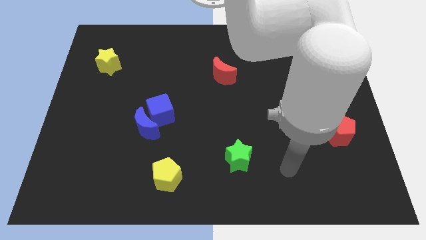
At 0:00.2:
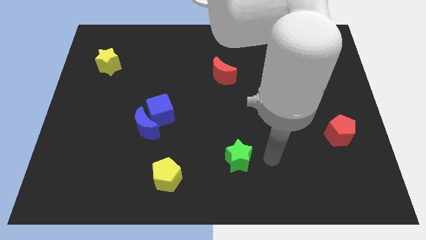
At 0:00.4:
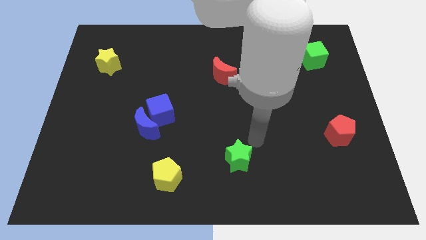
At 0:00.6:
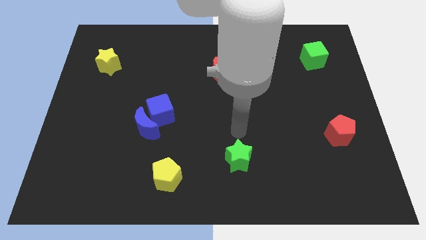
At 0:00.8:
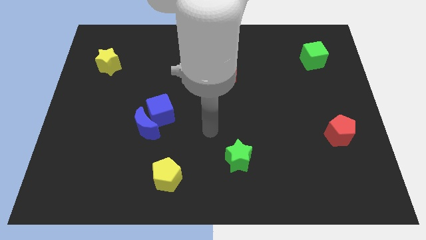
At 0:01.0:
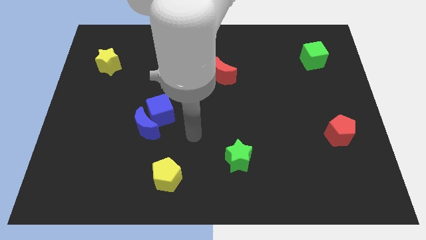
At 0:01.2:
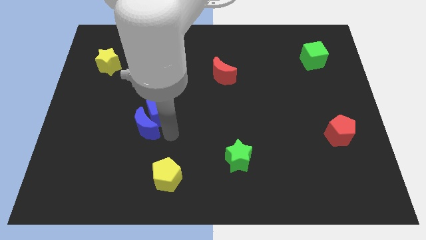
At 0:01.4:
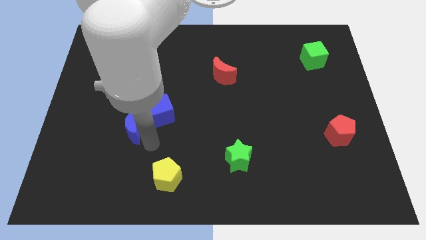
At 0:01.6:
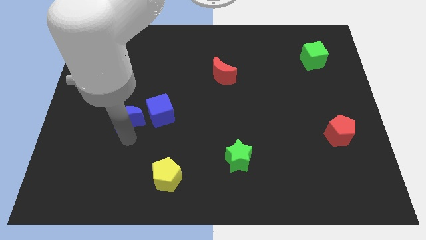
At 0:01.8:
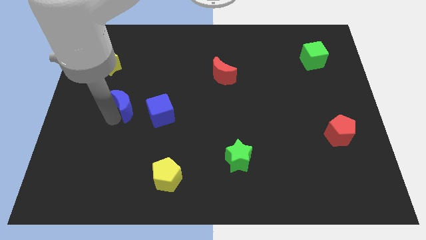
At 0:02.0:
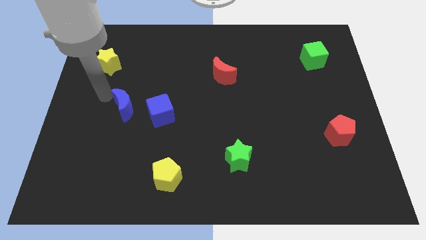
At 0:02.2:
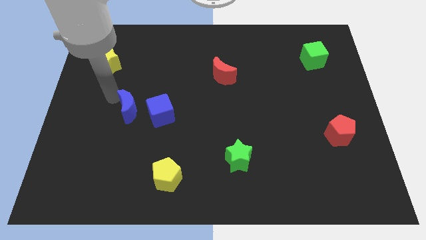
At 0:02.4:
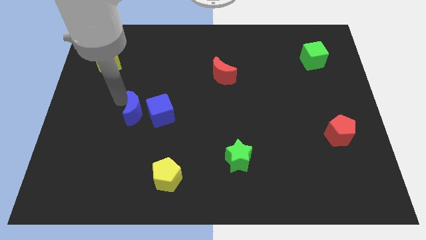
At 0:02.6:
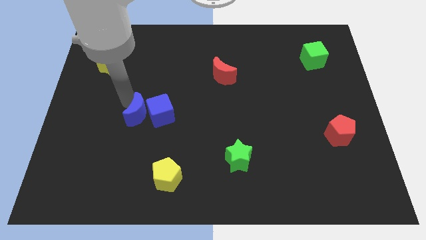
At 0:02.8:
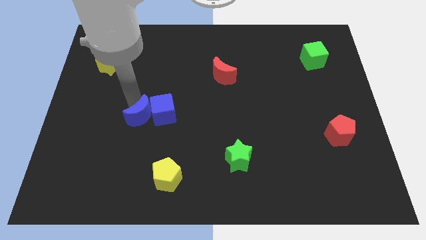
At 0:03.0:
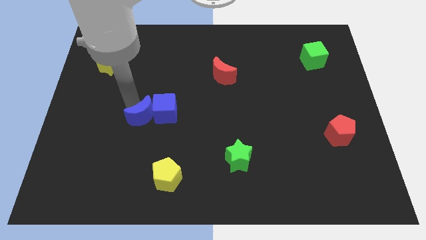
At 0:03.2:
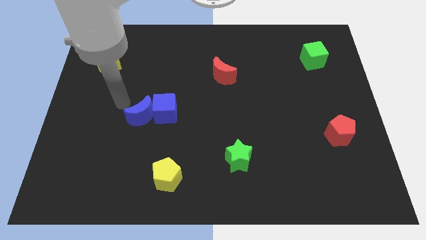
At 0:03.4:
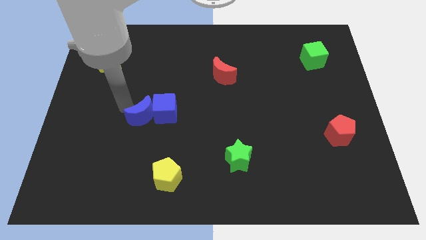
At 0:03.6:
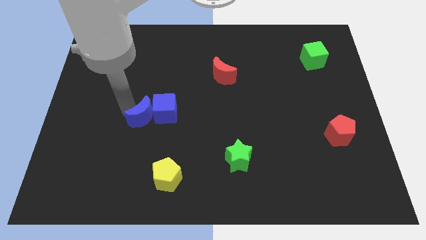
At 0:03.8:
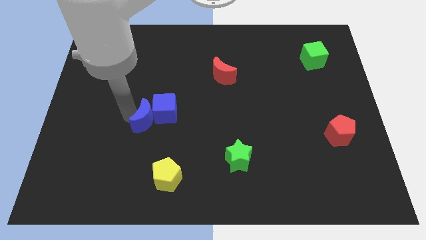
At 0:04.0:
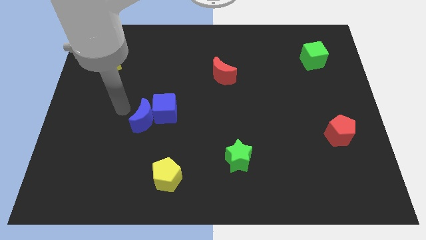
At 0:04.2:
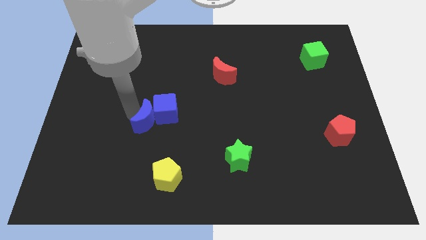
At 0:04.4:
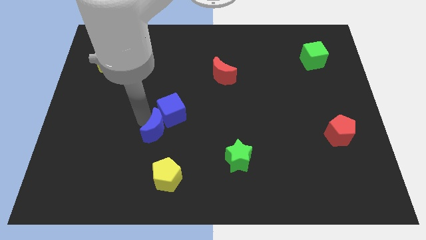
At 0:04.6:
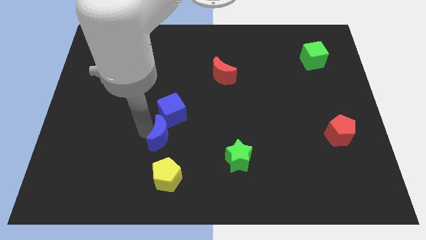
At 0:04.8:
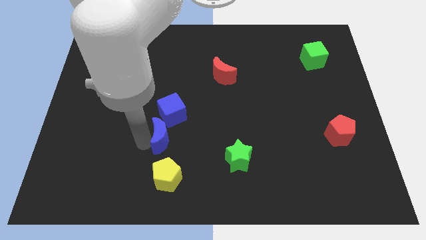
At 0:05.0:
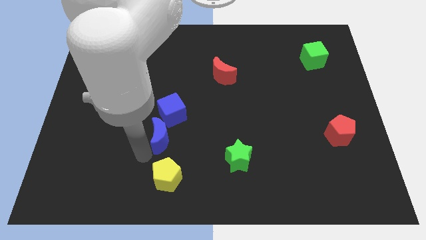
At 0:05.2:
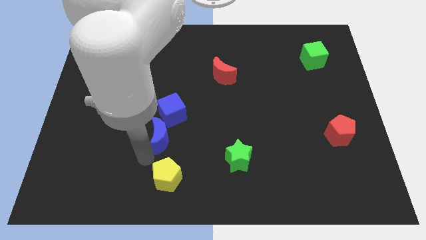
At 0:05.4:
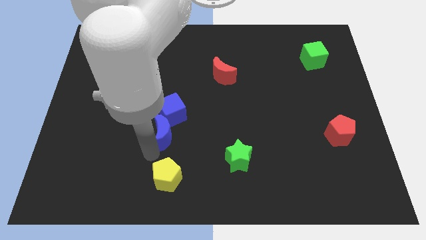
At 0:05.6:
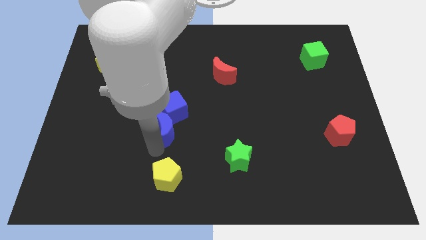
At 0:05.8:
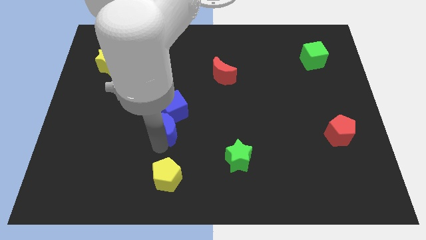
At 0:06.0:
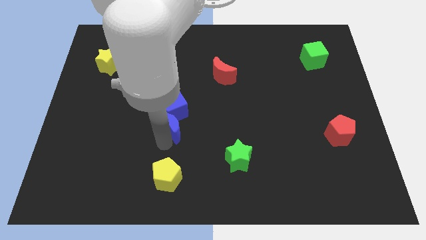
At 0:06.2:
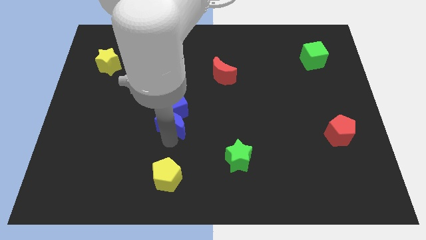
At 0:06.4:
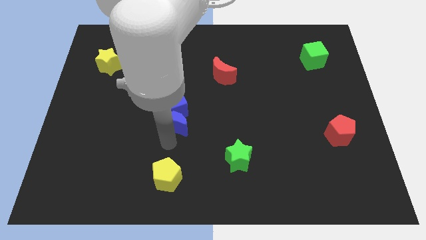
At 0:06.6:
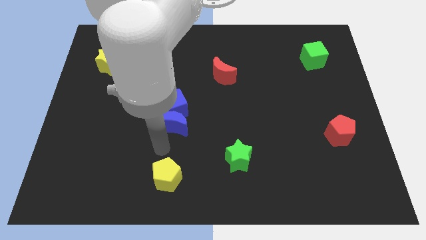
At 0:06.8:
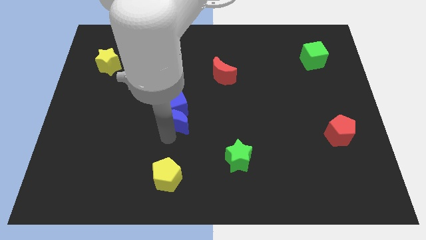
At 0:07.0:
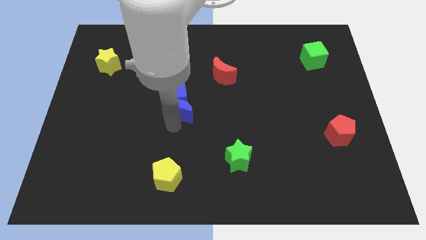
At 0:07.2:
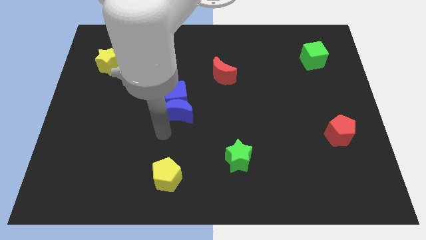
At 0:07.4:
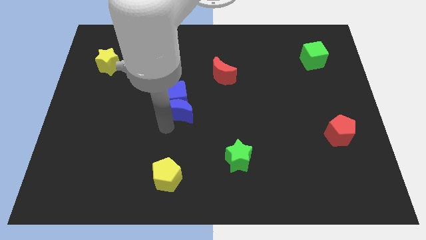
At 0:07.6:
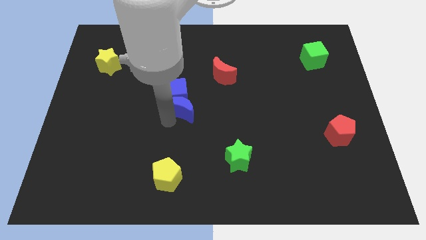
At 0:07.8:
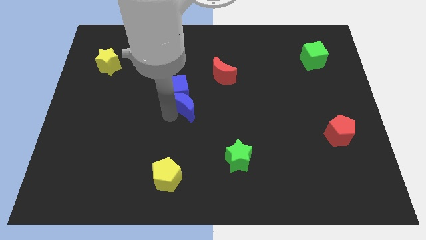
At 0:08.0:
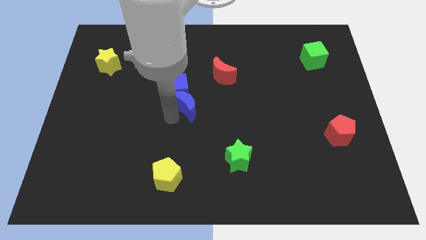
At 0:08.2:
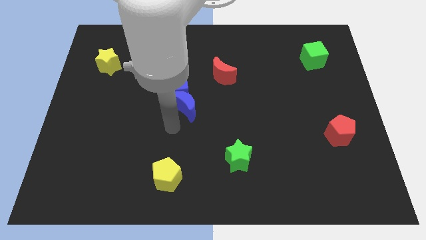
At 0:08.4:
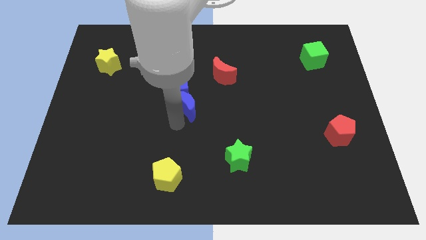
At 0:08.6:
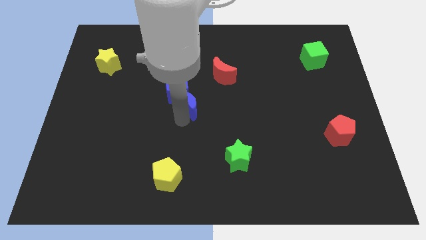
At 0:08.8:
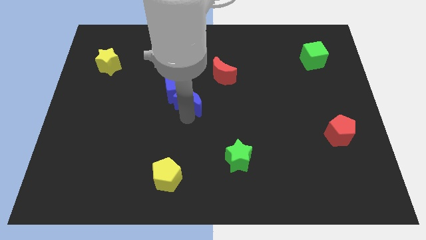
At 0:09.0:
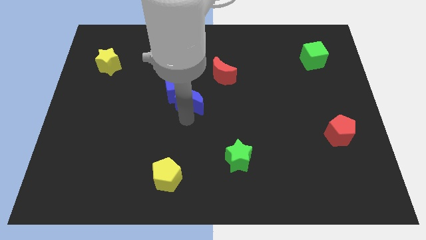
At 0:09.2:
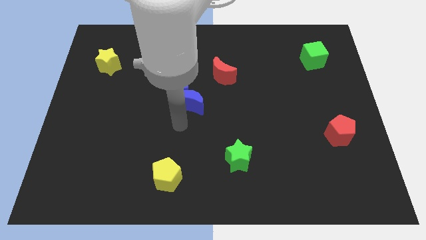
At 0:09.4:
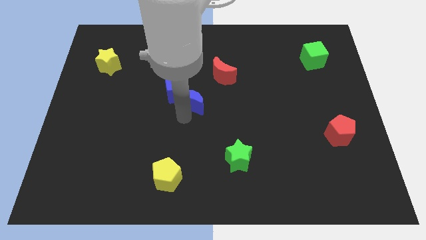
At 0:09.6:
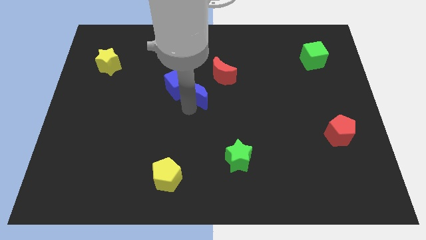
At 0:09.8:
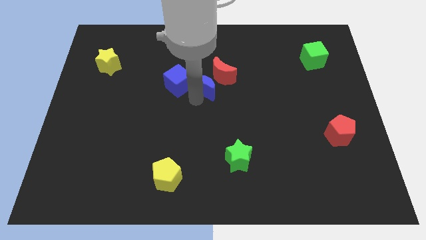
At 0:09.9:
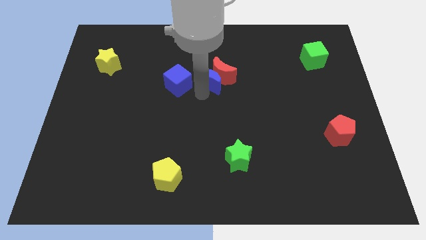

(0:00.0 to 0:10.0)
move the blue moon up and right diagonally

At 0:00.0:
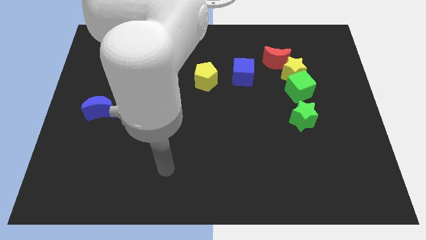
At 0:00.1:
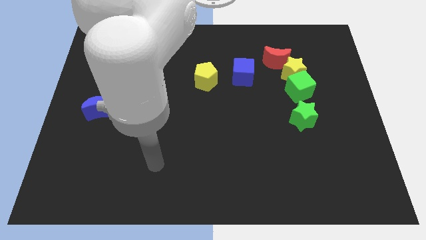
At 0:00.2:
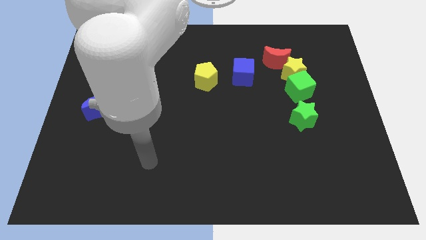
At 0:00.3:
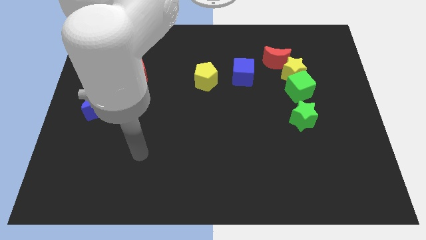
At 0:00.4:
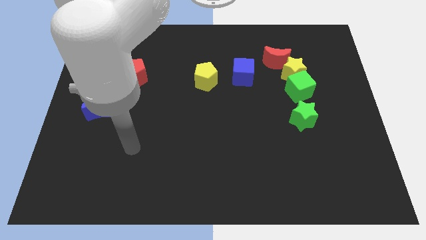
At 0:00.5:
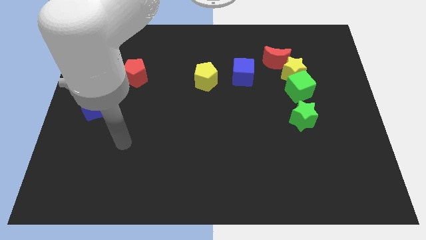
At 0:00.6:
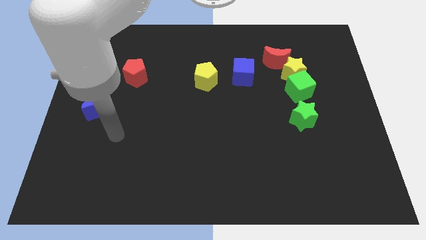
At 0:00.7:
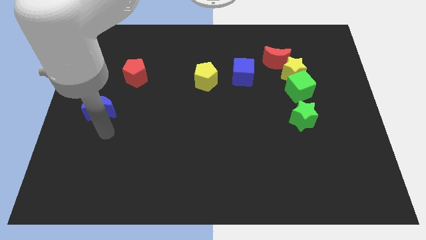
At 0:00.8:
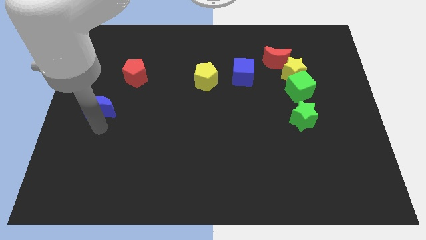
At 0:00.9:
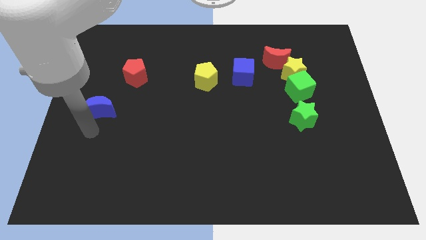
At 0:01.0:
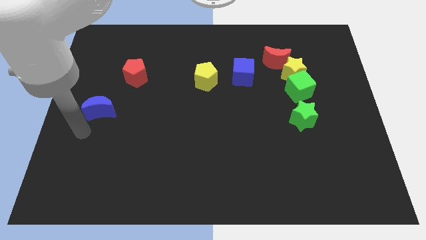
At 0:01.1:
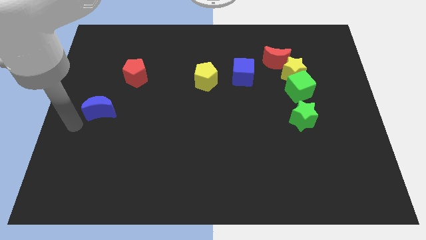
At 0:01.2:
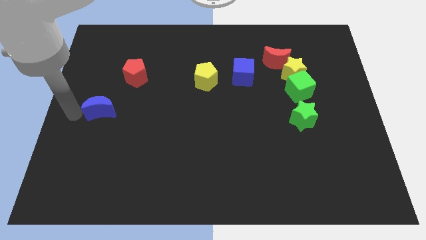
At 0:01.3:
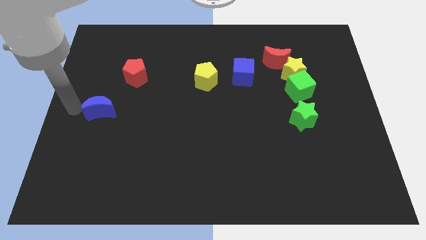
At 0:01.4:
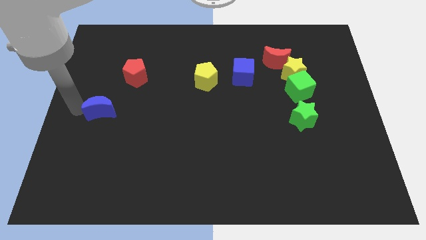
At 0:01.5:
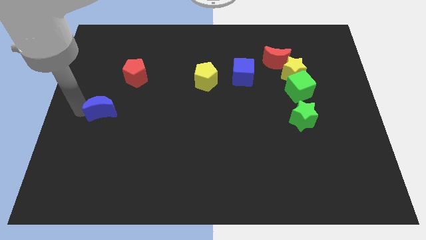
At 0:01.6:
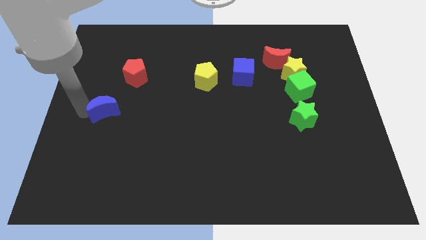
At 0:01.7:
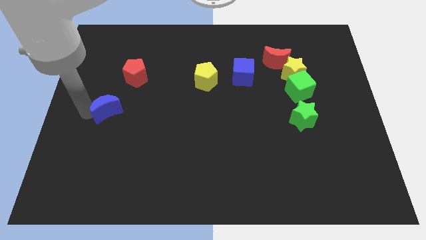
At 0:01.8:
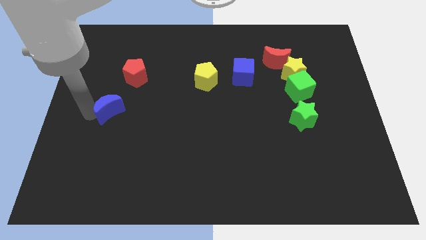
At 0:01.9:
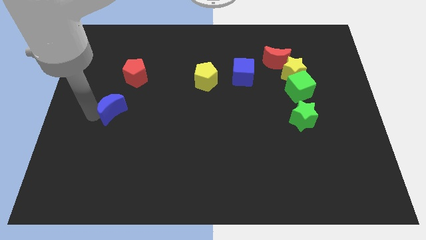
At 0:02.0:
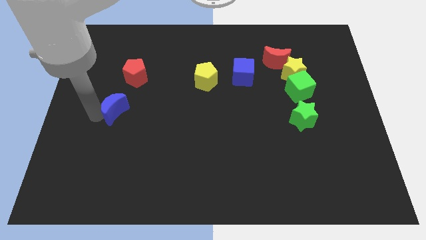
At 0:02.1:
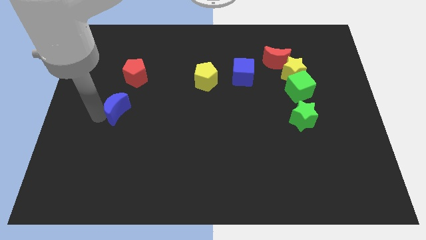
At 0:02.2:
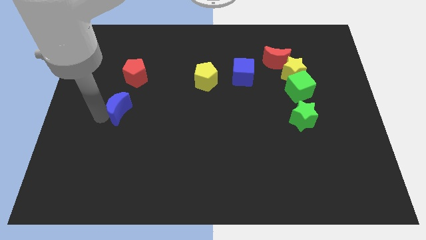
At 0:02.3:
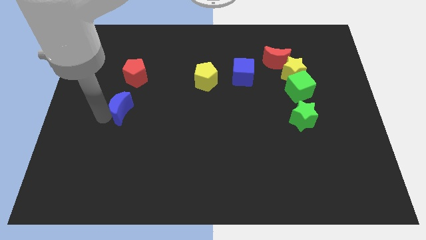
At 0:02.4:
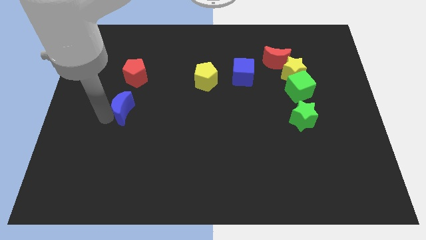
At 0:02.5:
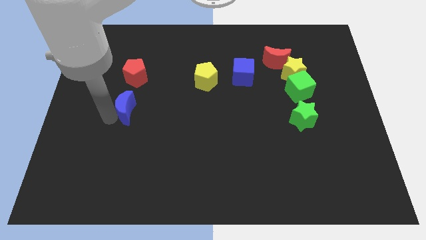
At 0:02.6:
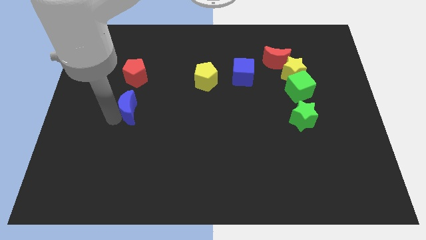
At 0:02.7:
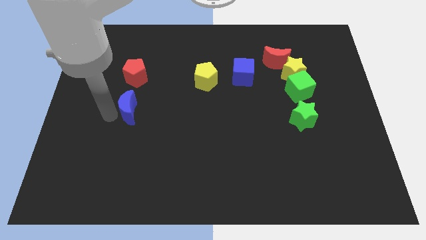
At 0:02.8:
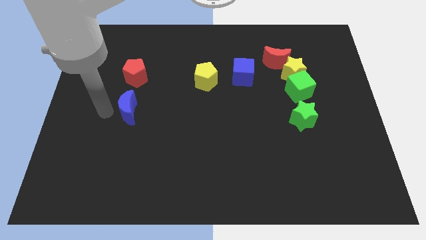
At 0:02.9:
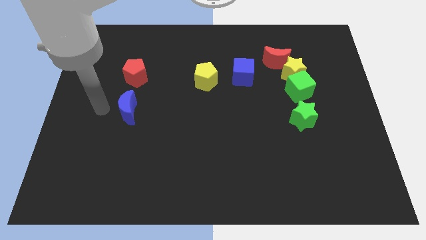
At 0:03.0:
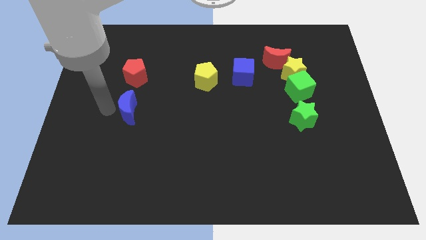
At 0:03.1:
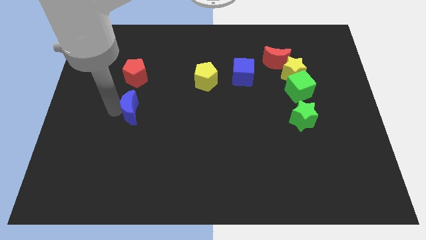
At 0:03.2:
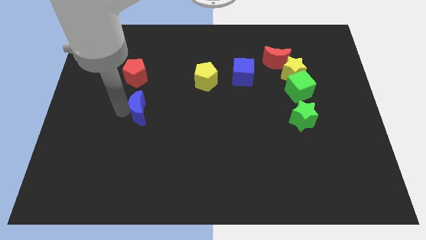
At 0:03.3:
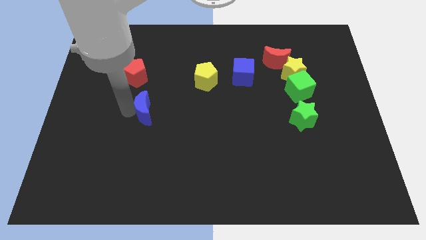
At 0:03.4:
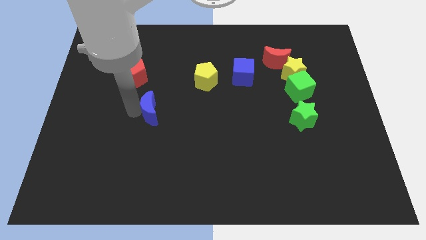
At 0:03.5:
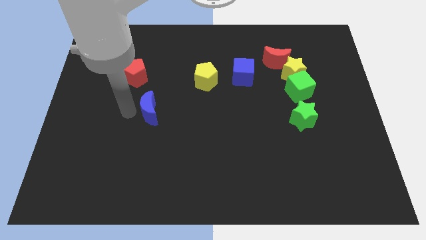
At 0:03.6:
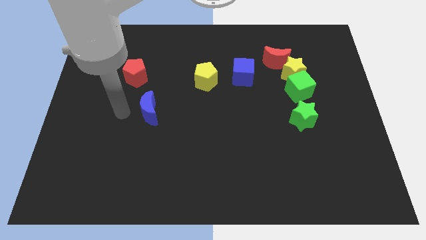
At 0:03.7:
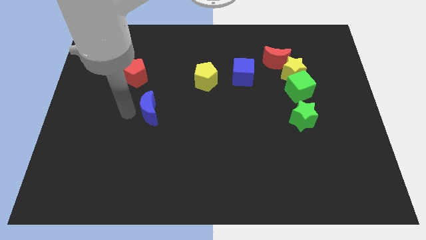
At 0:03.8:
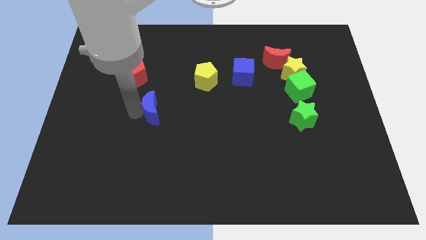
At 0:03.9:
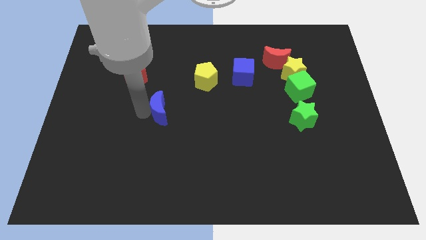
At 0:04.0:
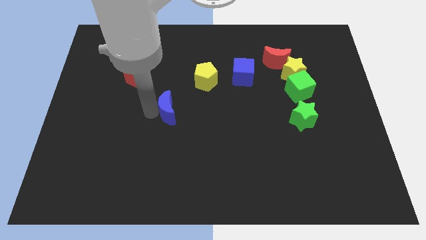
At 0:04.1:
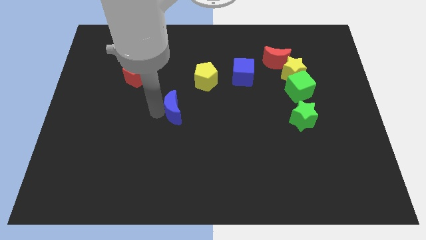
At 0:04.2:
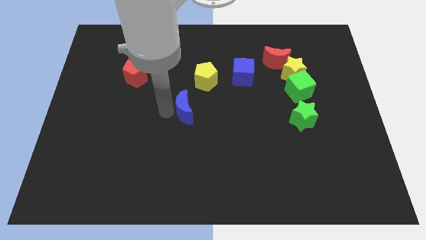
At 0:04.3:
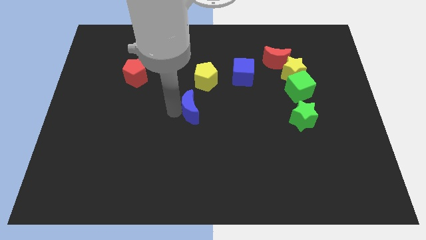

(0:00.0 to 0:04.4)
push the blue moon right
